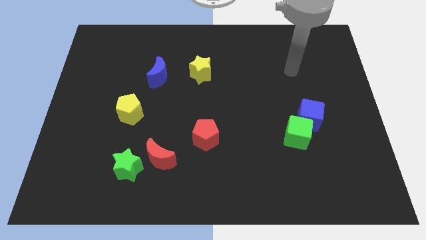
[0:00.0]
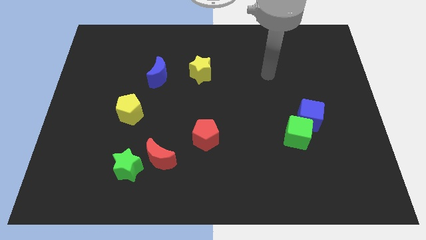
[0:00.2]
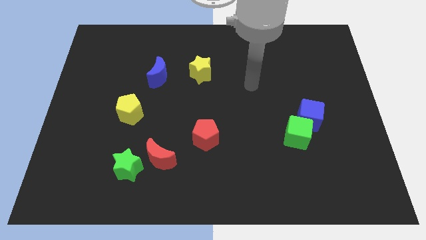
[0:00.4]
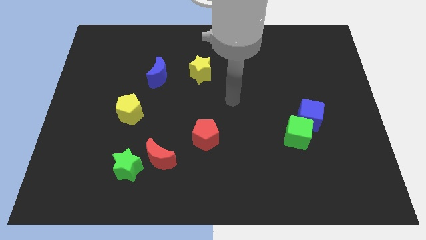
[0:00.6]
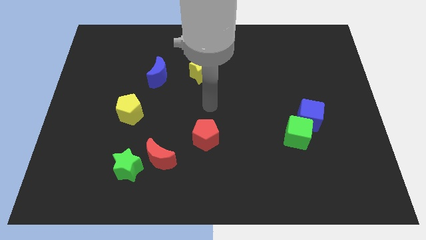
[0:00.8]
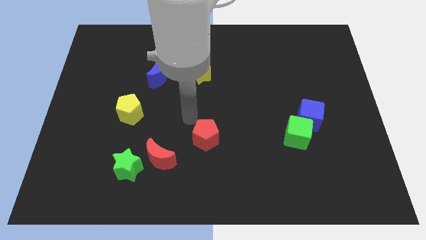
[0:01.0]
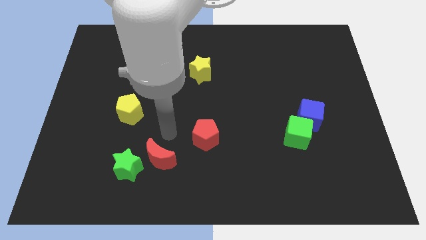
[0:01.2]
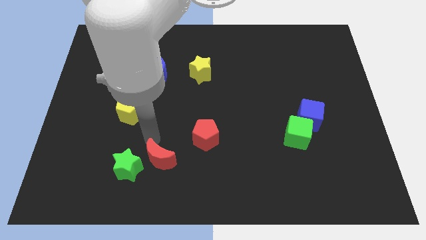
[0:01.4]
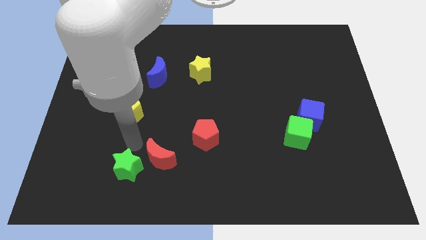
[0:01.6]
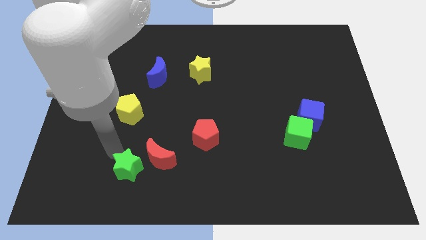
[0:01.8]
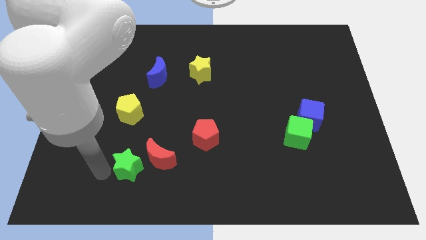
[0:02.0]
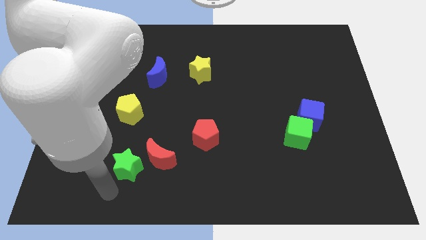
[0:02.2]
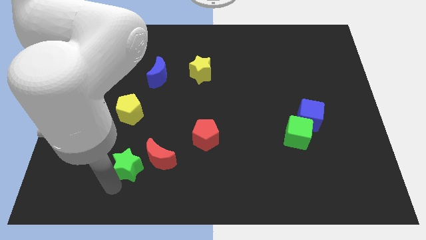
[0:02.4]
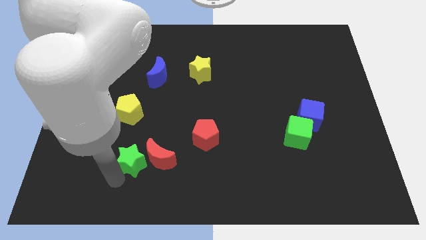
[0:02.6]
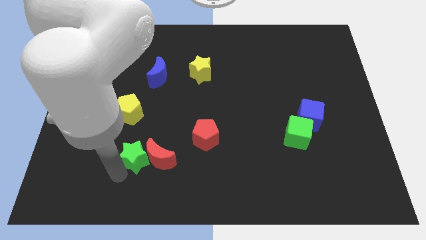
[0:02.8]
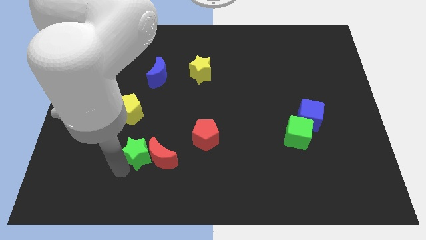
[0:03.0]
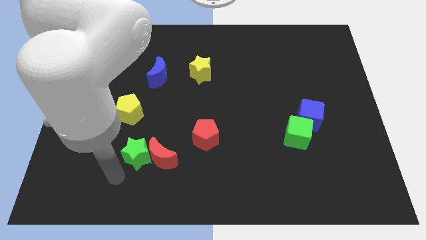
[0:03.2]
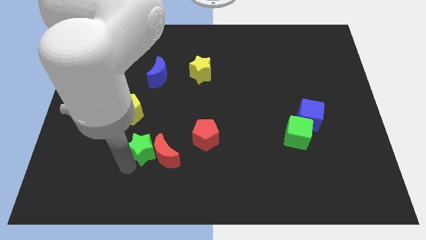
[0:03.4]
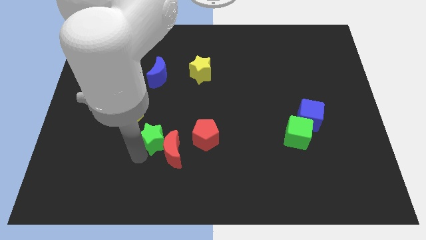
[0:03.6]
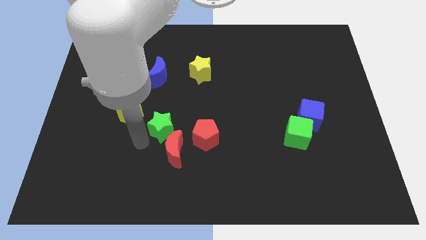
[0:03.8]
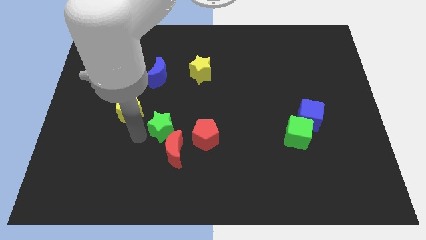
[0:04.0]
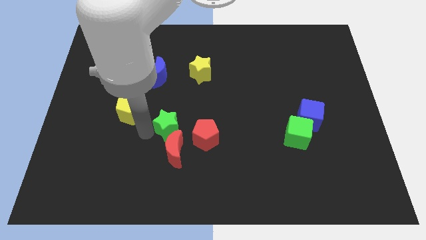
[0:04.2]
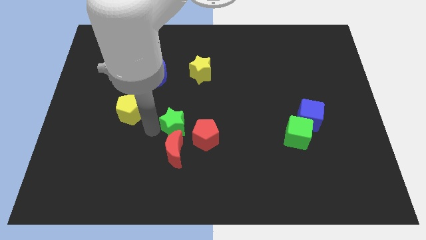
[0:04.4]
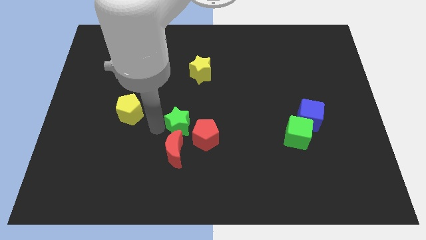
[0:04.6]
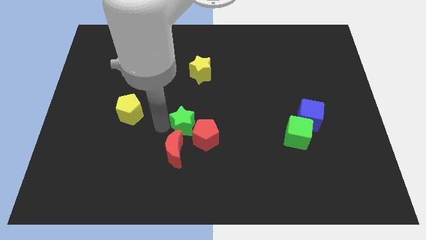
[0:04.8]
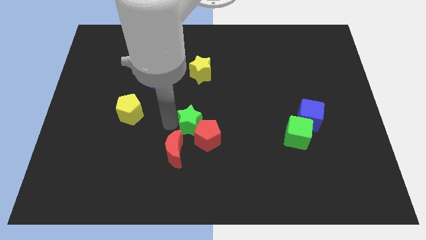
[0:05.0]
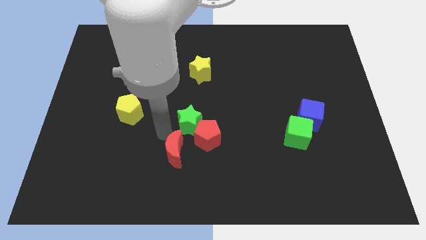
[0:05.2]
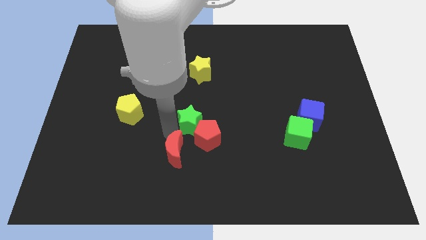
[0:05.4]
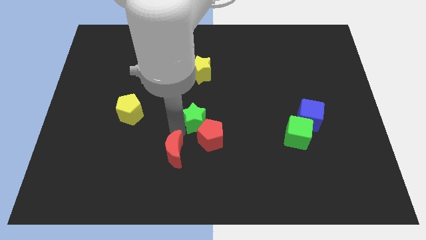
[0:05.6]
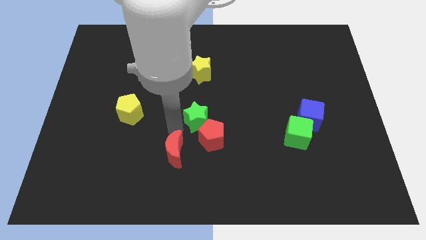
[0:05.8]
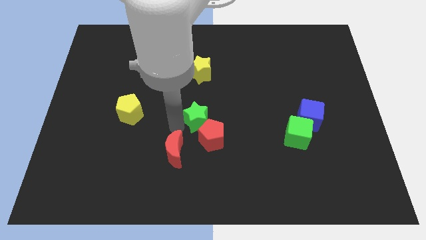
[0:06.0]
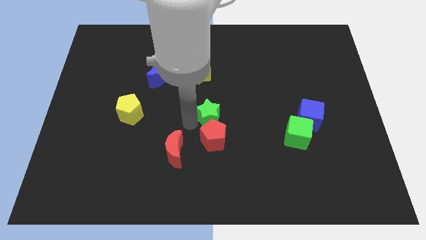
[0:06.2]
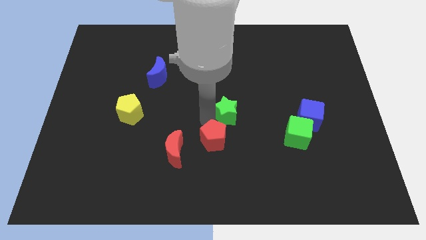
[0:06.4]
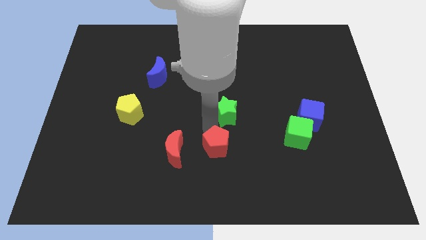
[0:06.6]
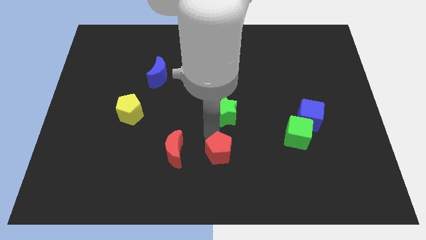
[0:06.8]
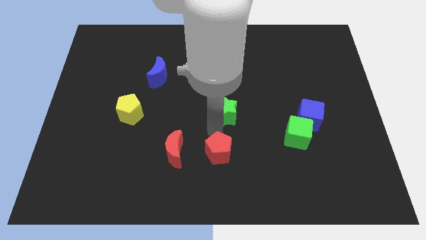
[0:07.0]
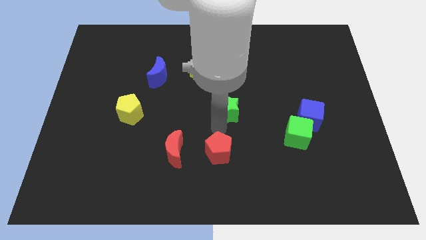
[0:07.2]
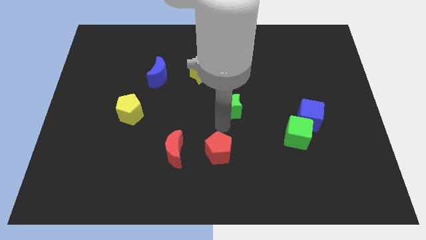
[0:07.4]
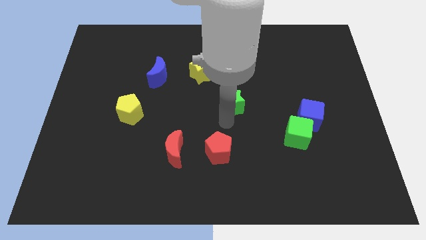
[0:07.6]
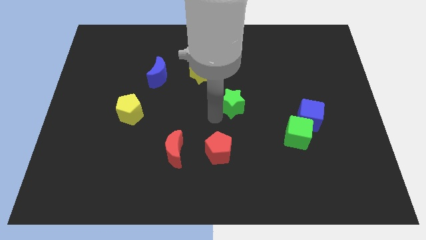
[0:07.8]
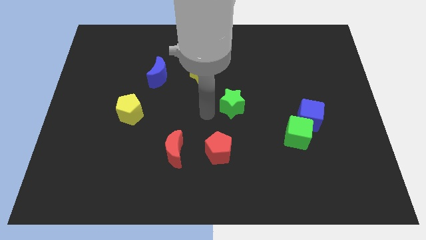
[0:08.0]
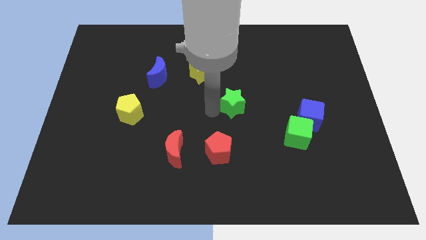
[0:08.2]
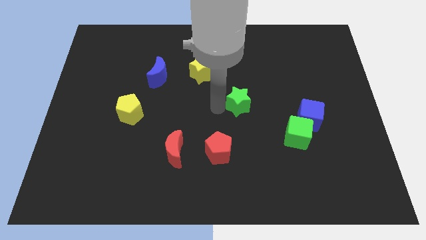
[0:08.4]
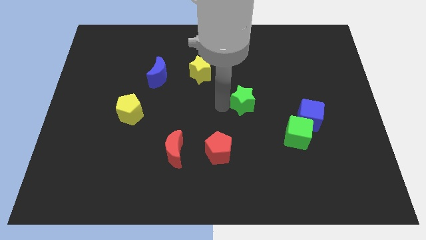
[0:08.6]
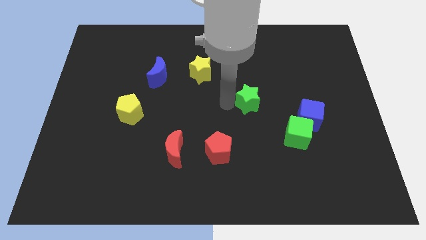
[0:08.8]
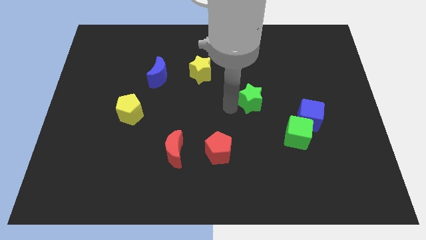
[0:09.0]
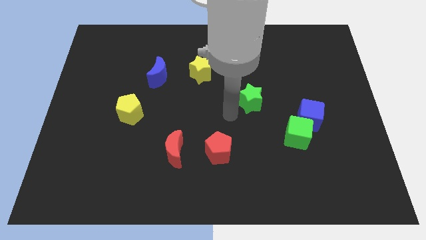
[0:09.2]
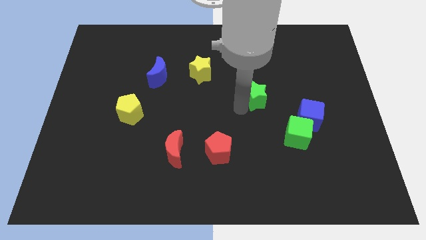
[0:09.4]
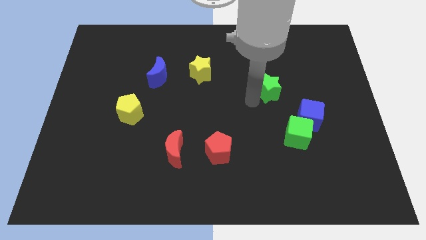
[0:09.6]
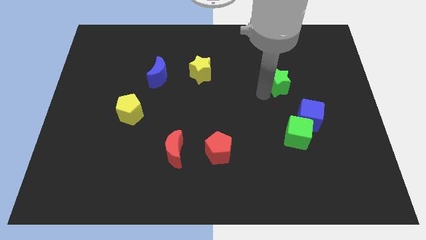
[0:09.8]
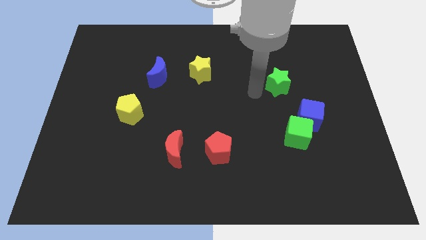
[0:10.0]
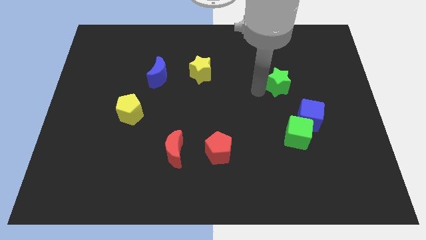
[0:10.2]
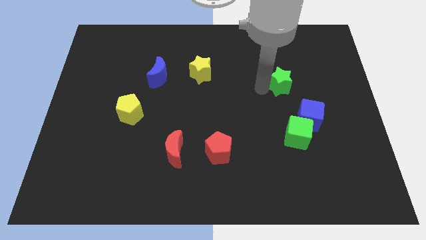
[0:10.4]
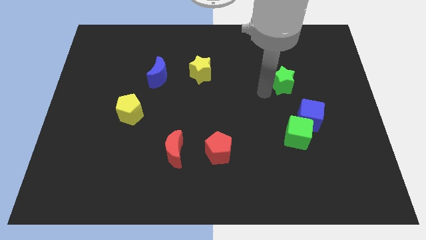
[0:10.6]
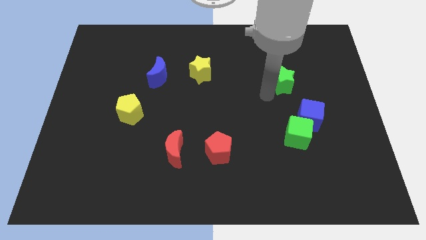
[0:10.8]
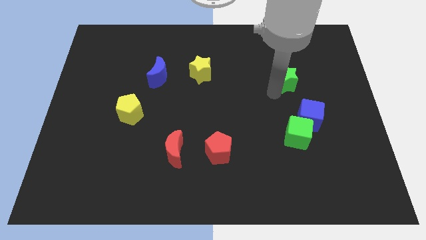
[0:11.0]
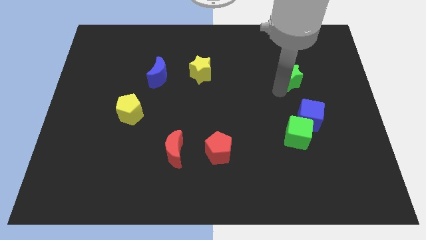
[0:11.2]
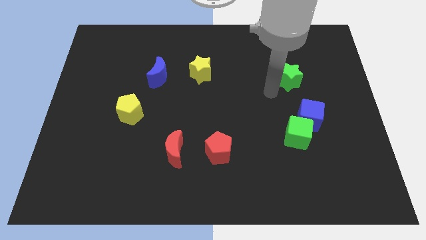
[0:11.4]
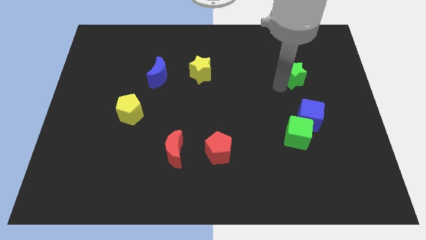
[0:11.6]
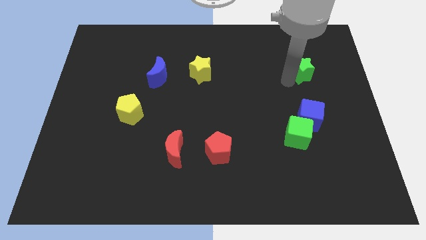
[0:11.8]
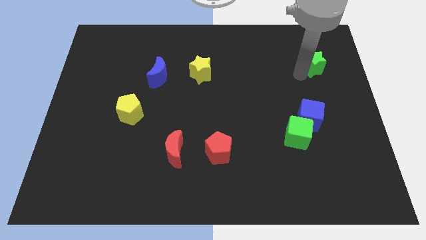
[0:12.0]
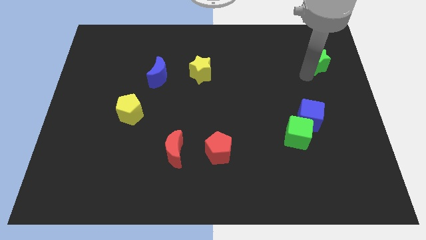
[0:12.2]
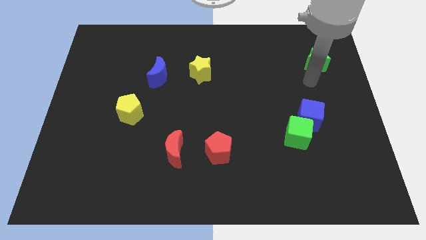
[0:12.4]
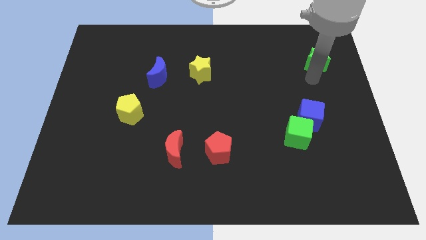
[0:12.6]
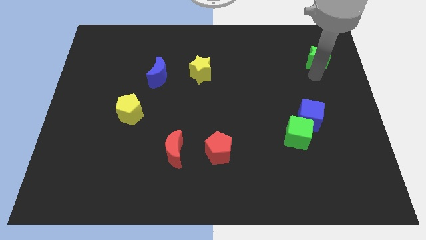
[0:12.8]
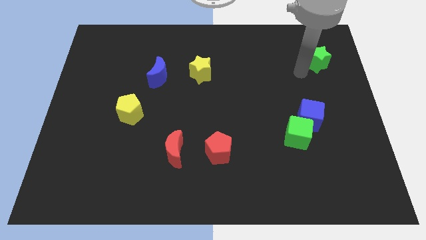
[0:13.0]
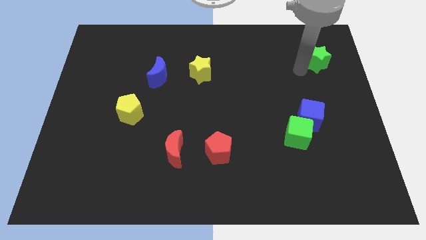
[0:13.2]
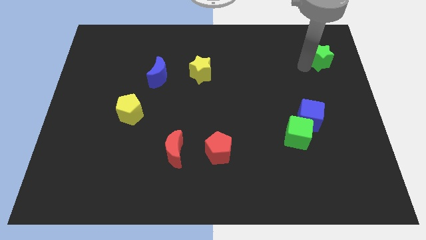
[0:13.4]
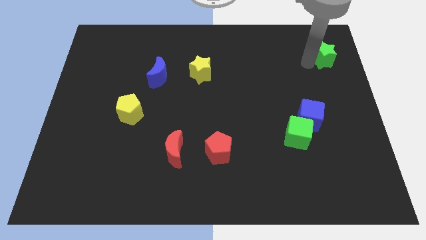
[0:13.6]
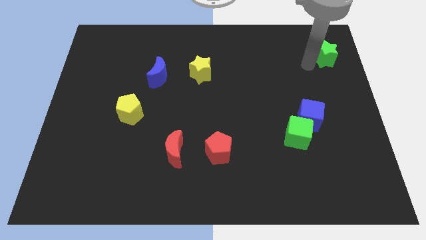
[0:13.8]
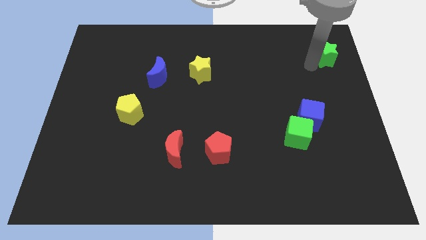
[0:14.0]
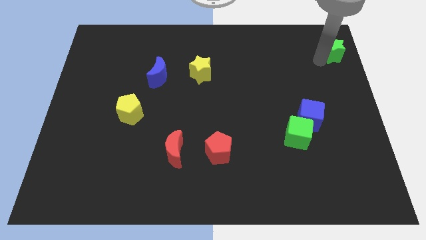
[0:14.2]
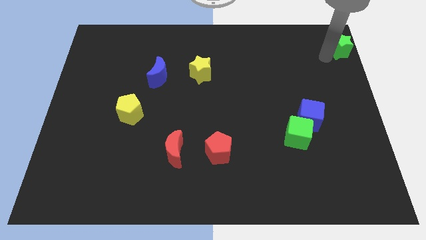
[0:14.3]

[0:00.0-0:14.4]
slide the green star to the top right
